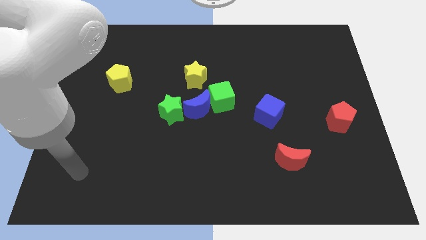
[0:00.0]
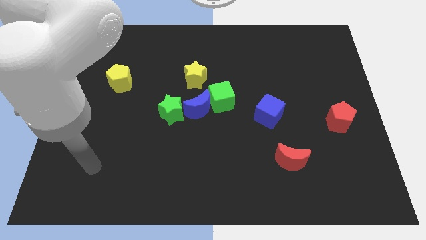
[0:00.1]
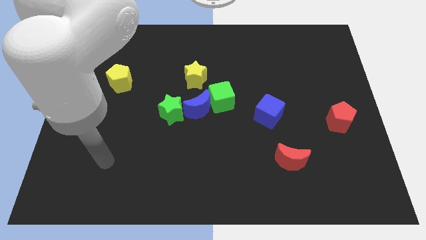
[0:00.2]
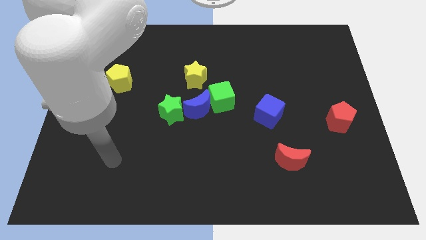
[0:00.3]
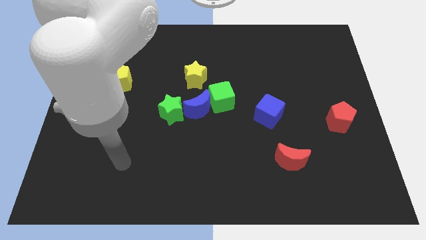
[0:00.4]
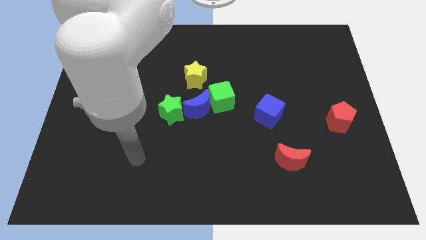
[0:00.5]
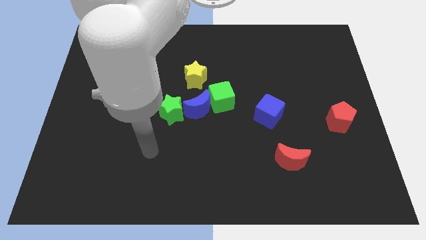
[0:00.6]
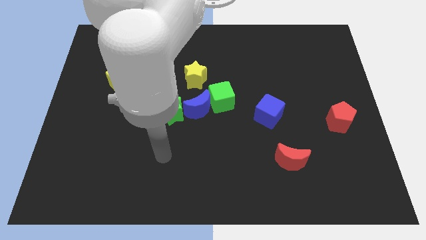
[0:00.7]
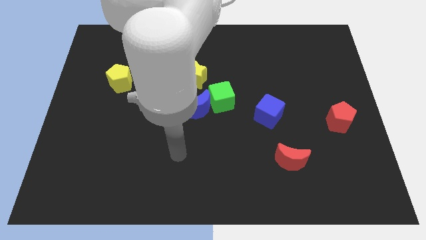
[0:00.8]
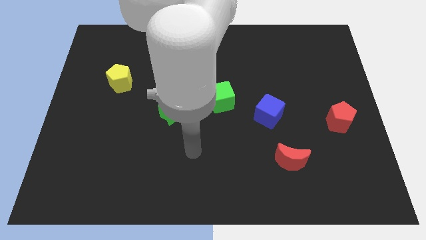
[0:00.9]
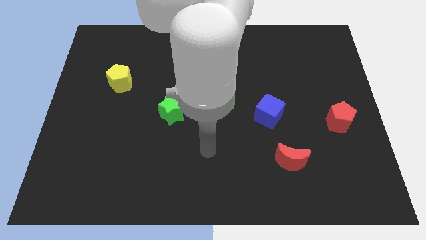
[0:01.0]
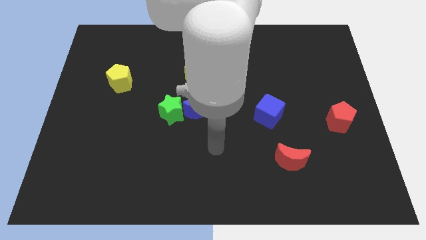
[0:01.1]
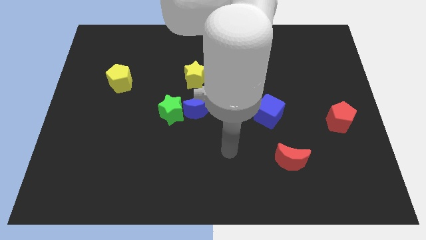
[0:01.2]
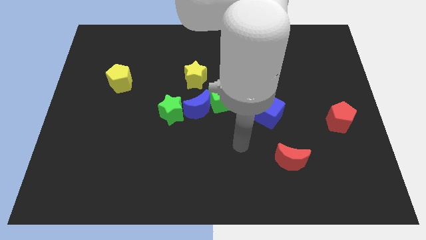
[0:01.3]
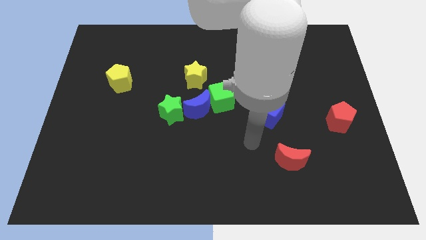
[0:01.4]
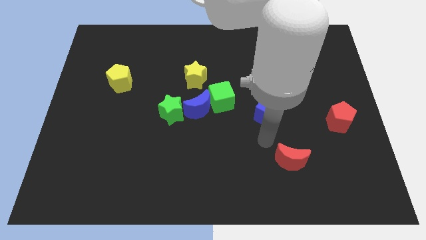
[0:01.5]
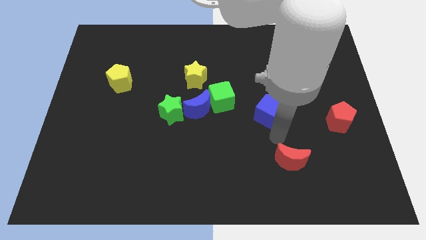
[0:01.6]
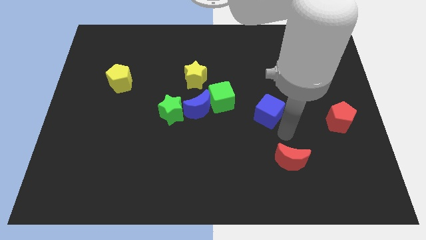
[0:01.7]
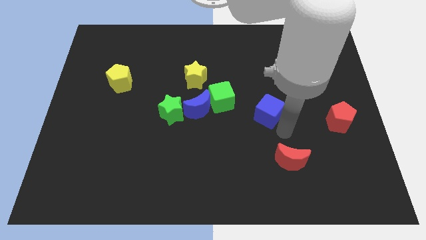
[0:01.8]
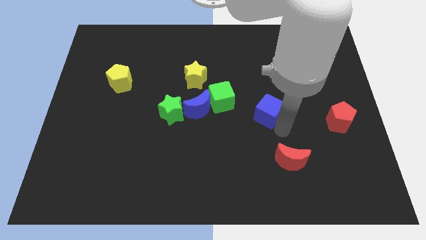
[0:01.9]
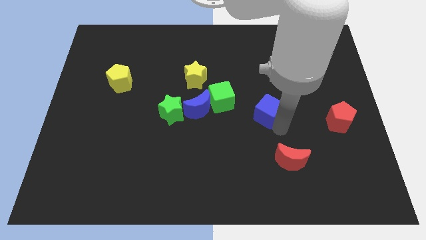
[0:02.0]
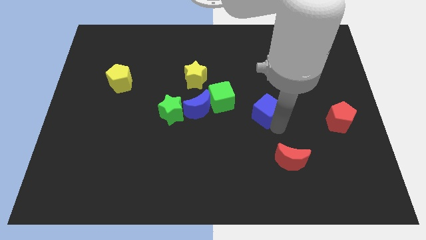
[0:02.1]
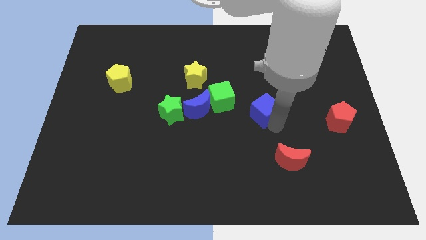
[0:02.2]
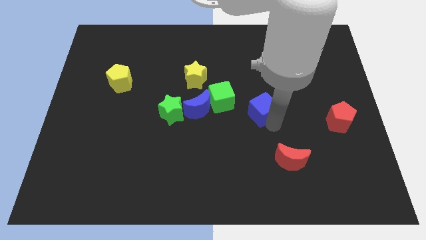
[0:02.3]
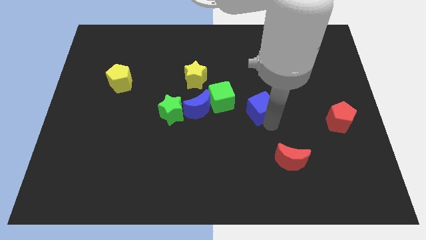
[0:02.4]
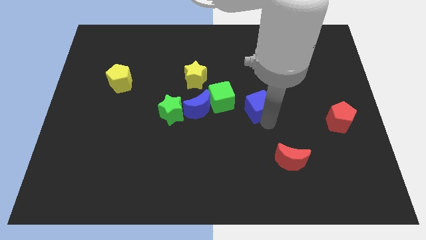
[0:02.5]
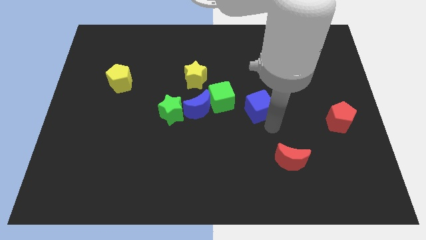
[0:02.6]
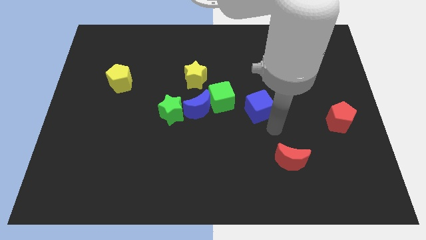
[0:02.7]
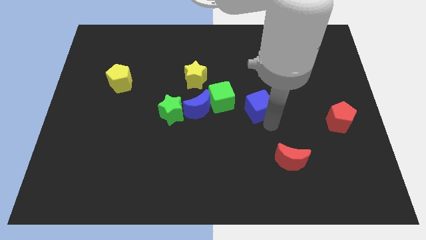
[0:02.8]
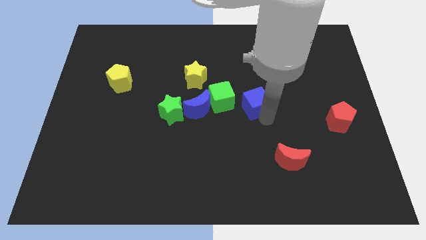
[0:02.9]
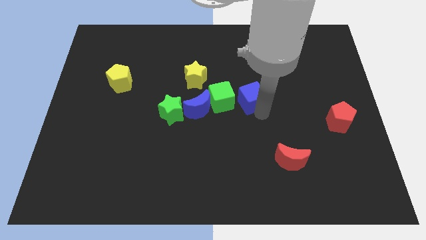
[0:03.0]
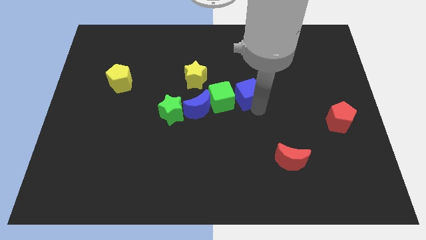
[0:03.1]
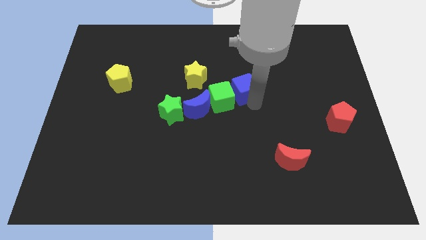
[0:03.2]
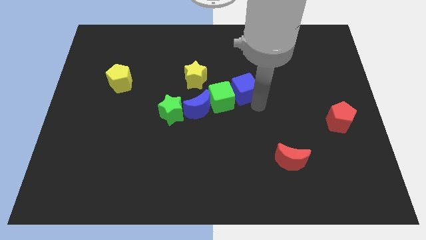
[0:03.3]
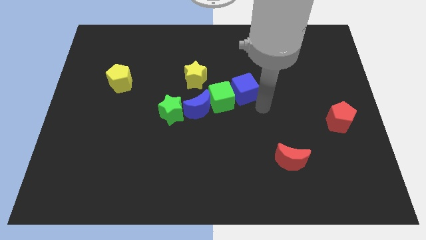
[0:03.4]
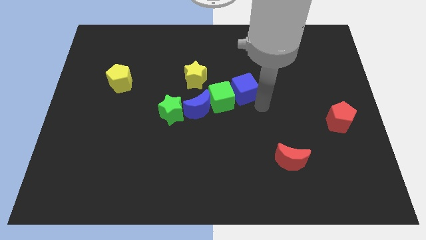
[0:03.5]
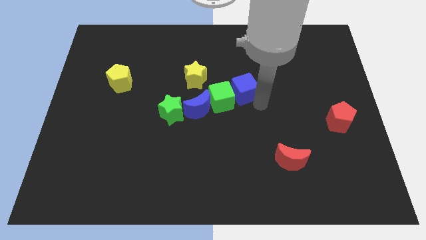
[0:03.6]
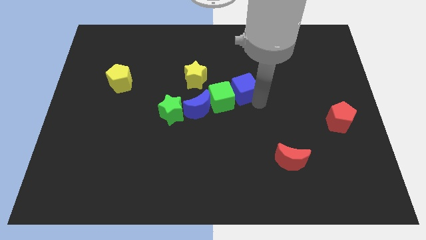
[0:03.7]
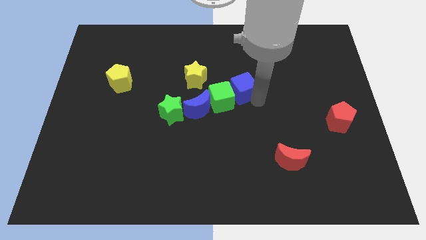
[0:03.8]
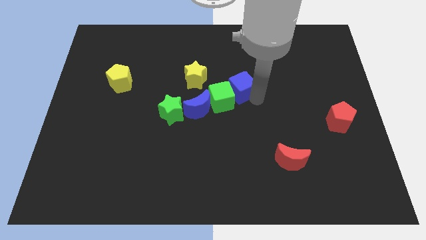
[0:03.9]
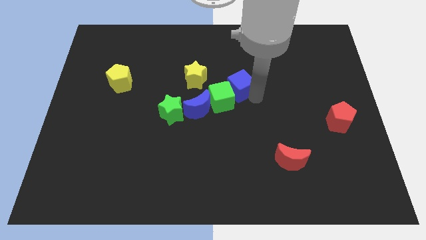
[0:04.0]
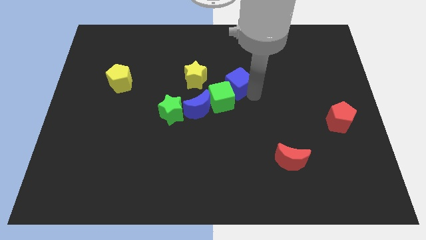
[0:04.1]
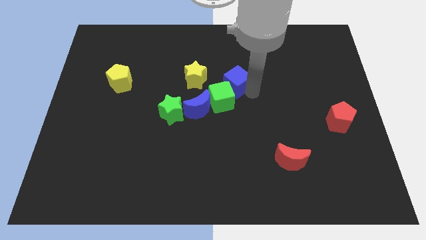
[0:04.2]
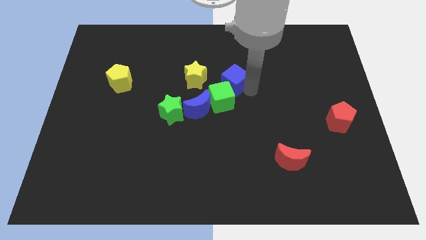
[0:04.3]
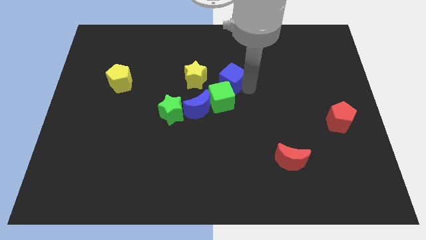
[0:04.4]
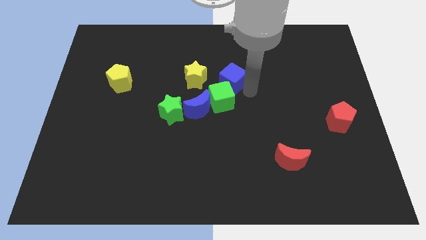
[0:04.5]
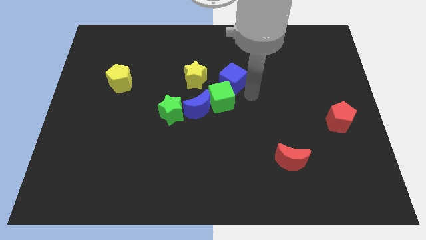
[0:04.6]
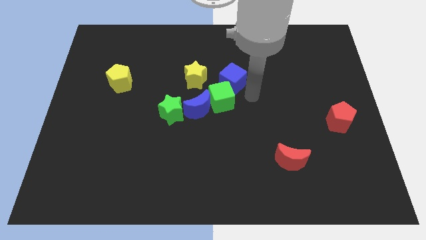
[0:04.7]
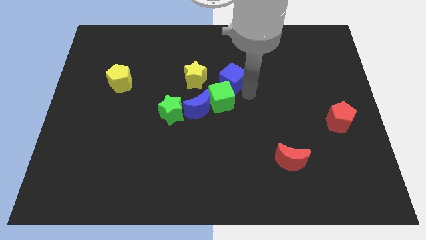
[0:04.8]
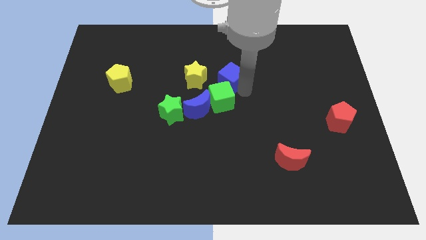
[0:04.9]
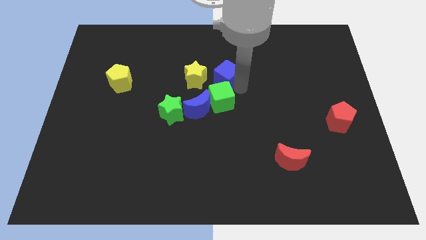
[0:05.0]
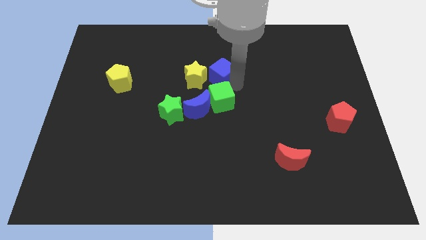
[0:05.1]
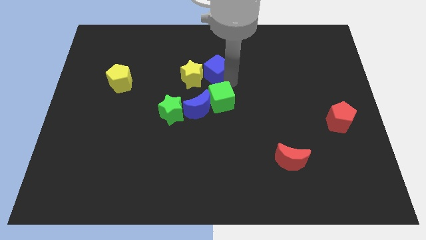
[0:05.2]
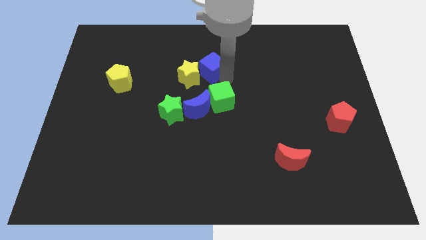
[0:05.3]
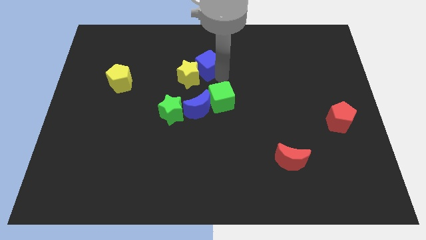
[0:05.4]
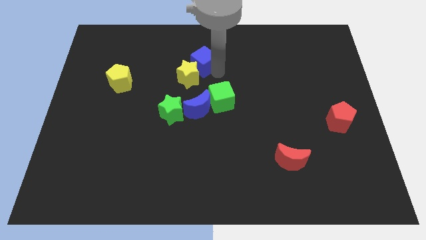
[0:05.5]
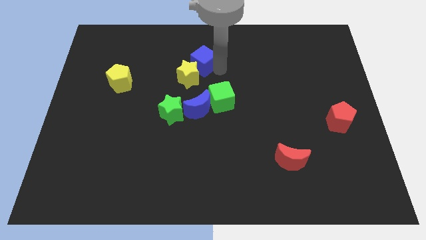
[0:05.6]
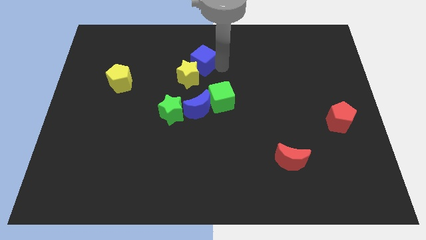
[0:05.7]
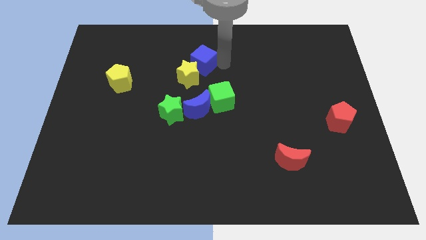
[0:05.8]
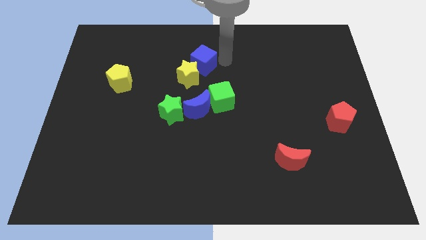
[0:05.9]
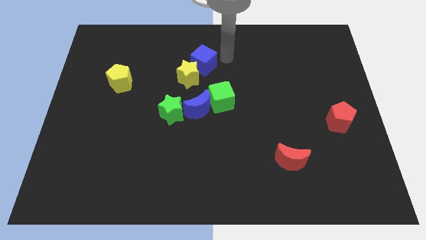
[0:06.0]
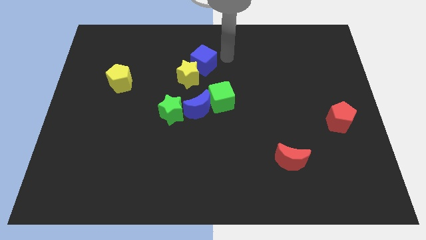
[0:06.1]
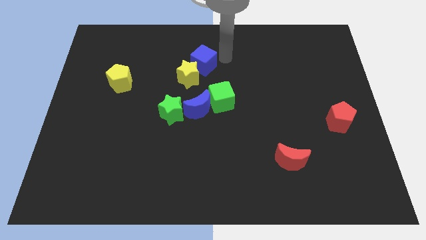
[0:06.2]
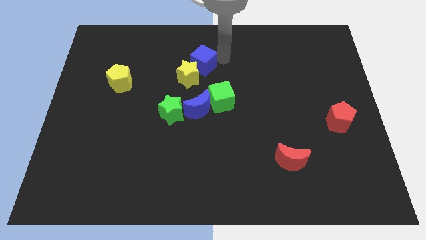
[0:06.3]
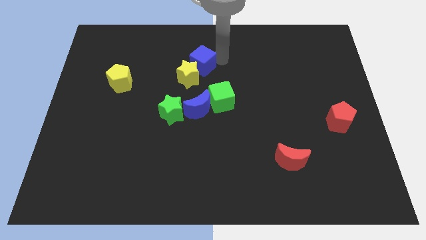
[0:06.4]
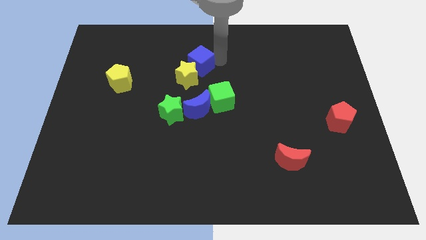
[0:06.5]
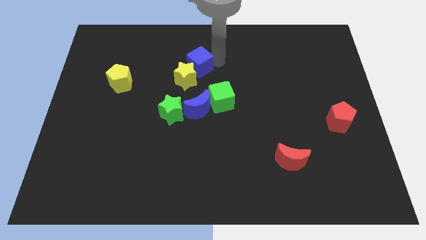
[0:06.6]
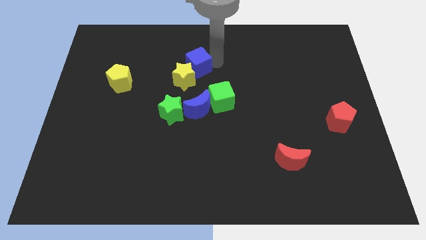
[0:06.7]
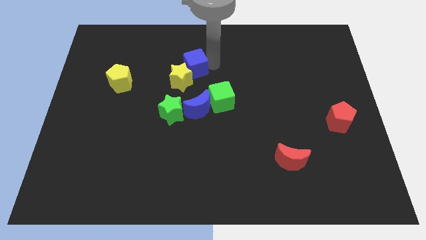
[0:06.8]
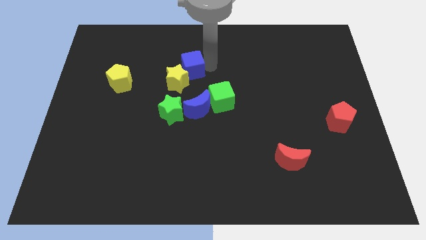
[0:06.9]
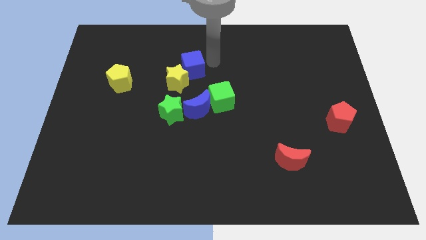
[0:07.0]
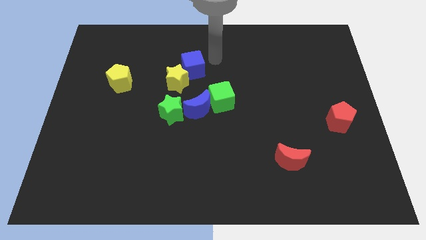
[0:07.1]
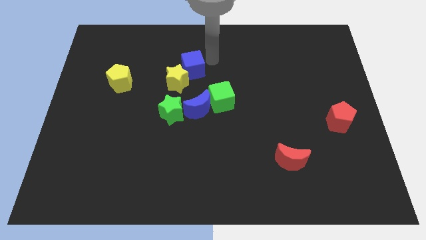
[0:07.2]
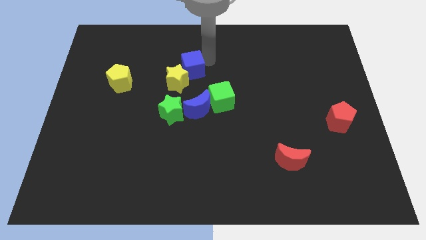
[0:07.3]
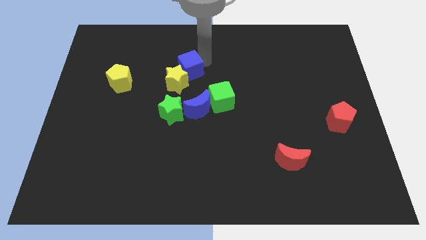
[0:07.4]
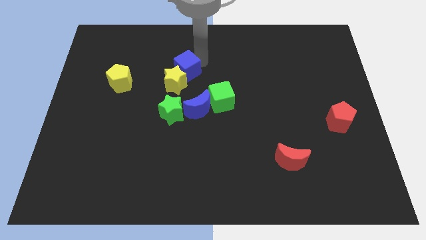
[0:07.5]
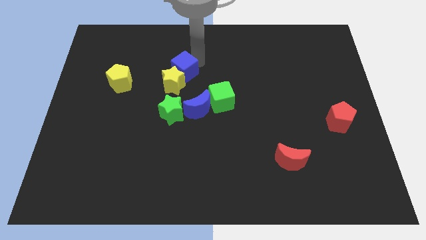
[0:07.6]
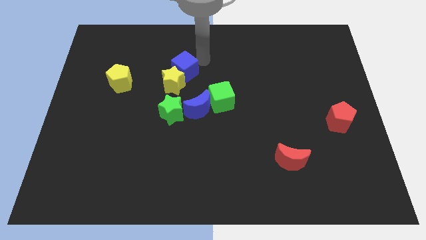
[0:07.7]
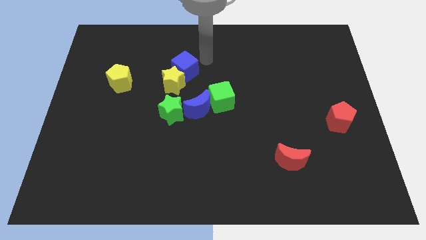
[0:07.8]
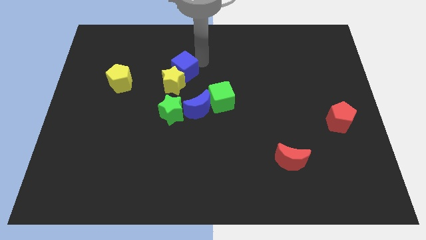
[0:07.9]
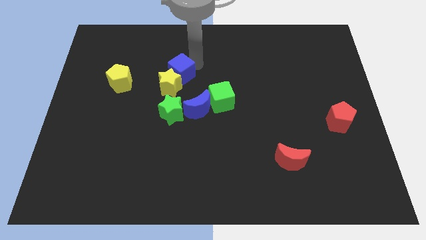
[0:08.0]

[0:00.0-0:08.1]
move the blue cube right of the yellow pentagon
